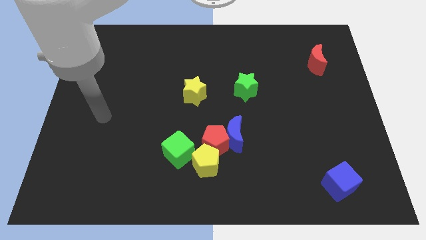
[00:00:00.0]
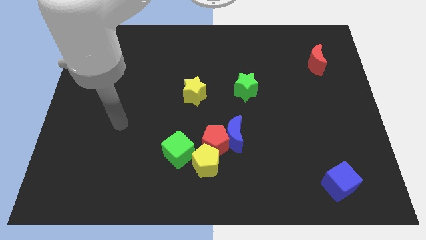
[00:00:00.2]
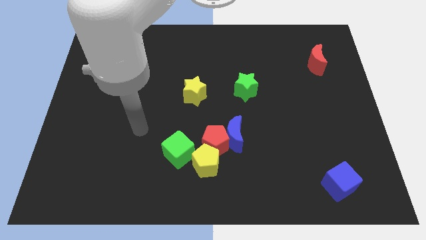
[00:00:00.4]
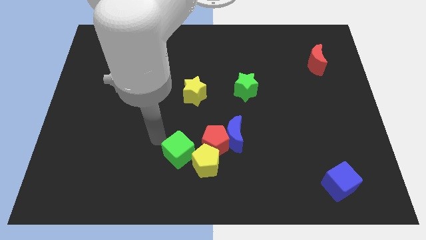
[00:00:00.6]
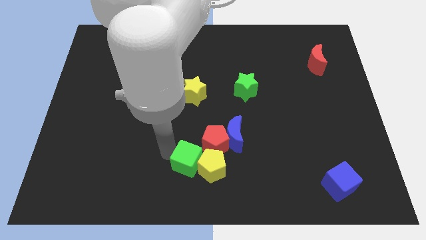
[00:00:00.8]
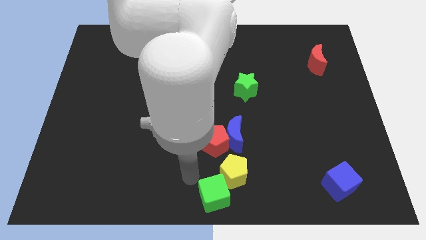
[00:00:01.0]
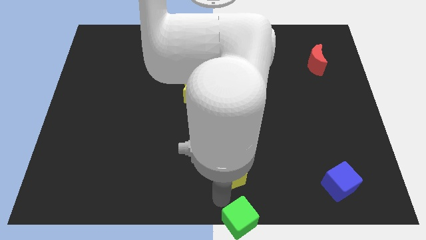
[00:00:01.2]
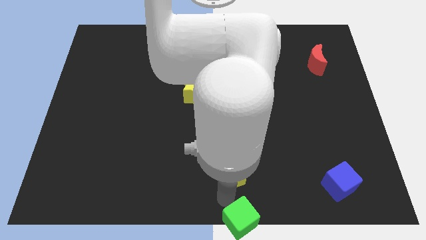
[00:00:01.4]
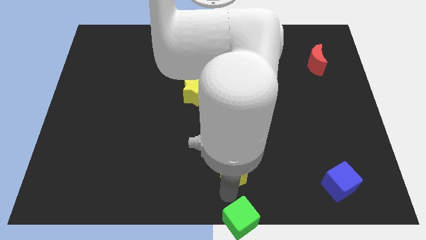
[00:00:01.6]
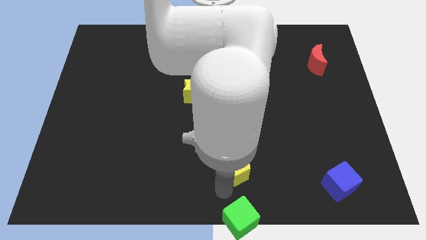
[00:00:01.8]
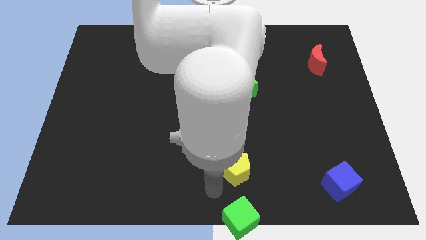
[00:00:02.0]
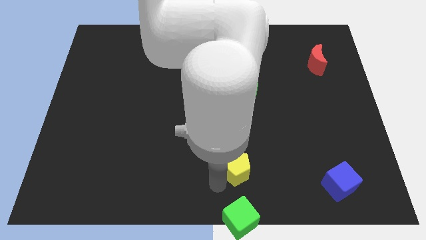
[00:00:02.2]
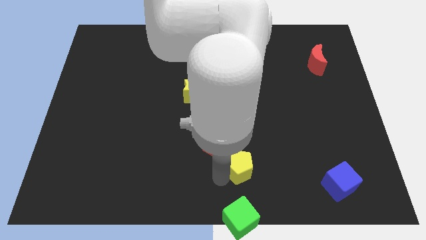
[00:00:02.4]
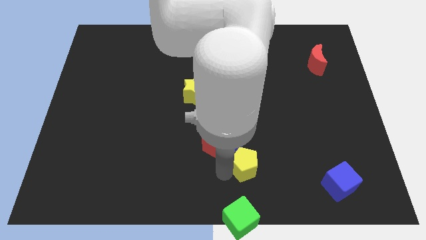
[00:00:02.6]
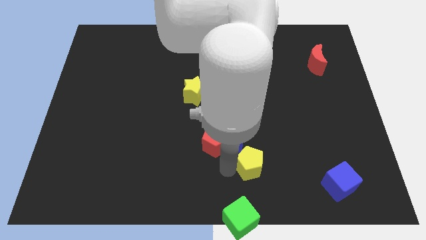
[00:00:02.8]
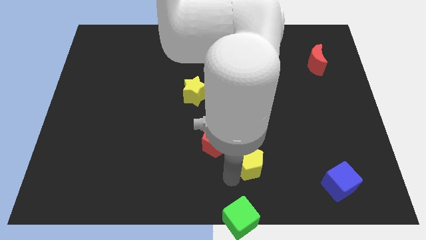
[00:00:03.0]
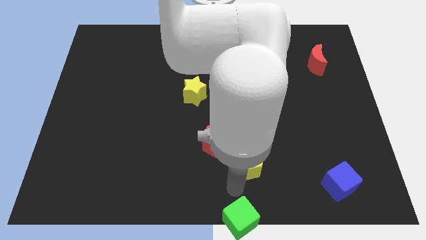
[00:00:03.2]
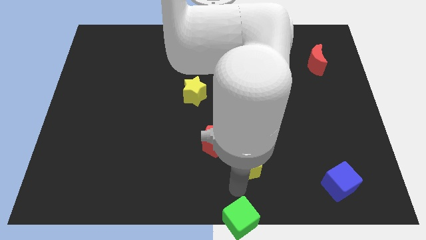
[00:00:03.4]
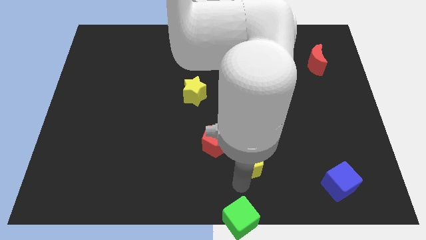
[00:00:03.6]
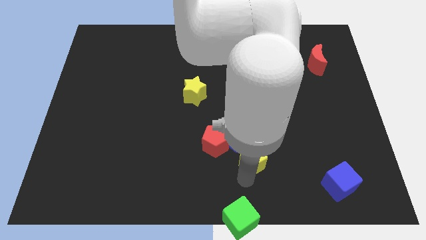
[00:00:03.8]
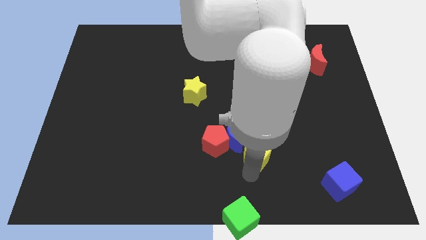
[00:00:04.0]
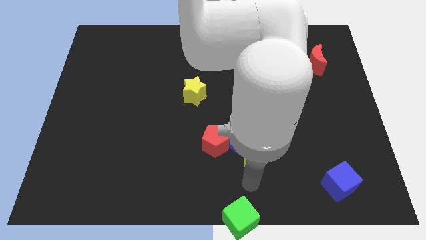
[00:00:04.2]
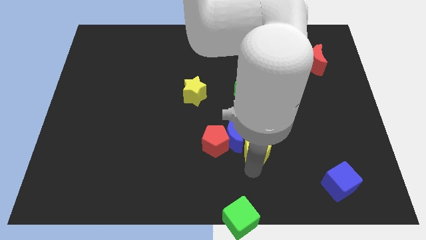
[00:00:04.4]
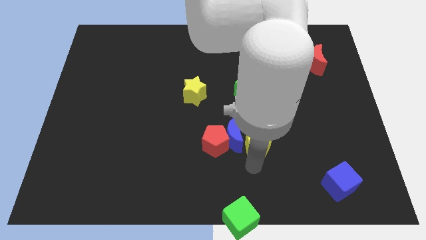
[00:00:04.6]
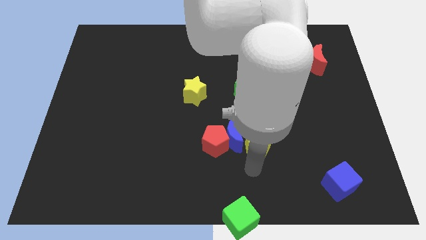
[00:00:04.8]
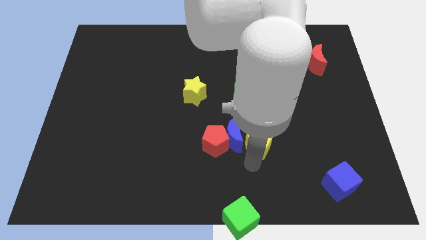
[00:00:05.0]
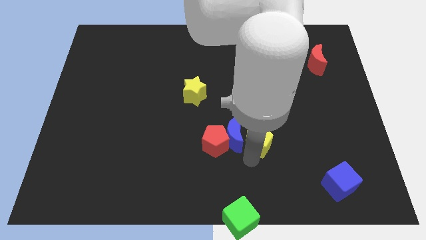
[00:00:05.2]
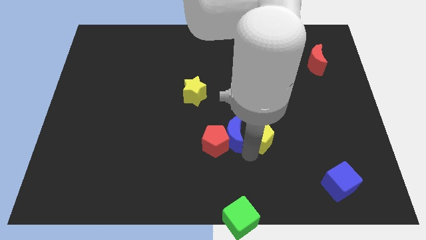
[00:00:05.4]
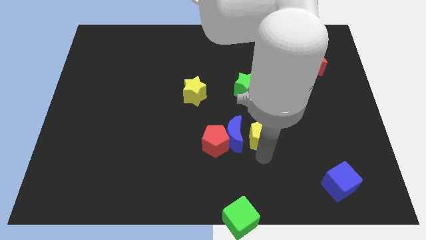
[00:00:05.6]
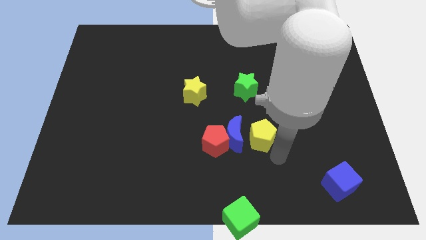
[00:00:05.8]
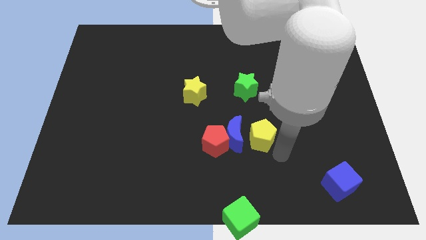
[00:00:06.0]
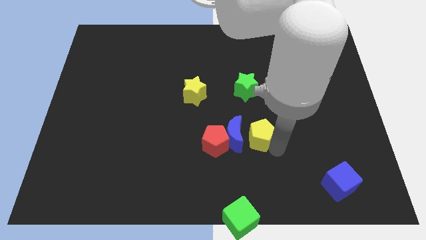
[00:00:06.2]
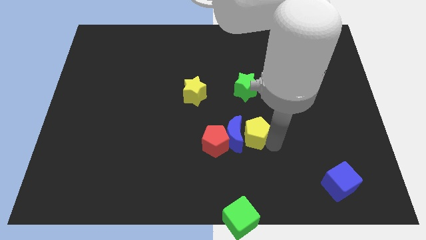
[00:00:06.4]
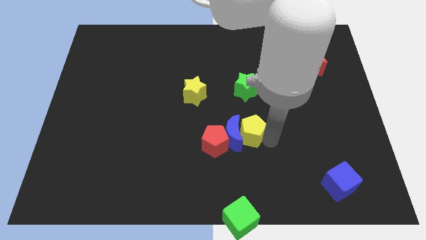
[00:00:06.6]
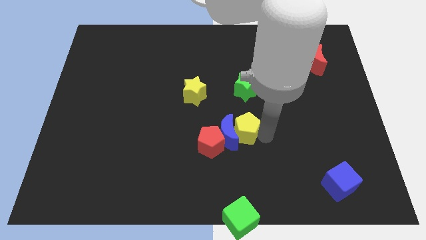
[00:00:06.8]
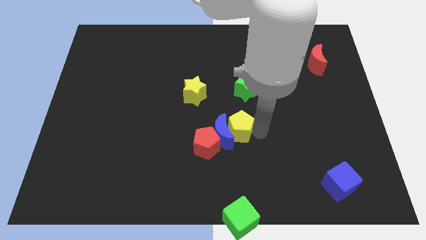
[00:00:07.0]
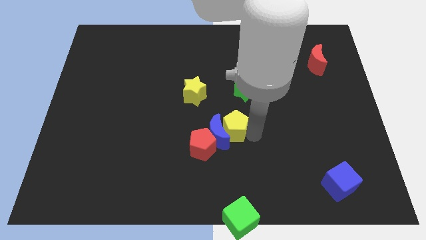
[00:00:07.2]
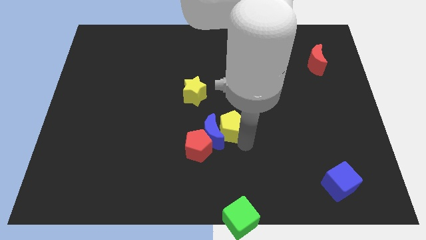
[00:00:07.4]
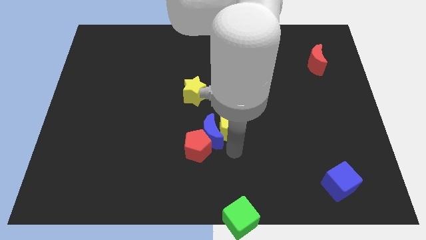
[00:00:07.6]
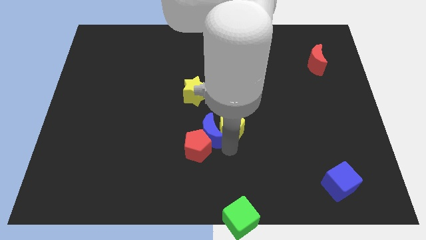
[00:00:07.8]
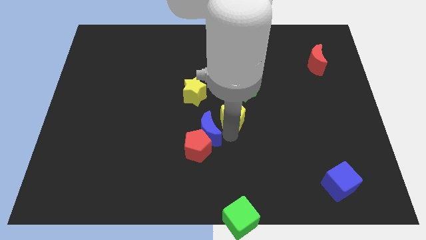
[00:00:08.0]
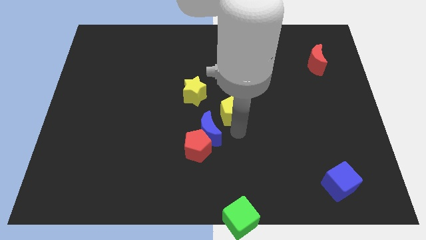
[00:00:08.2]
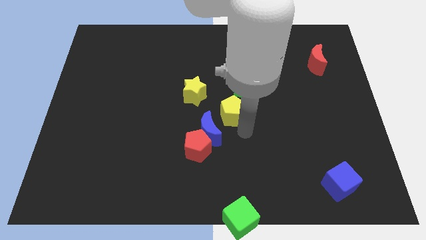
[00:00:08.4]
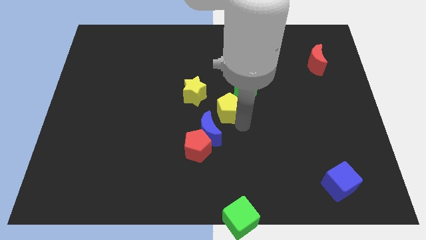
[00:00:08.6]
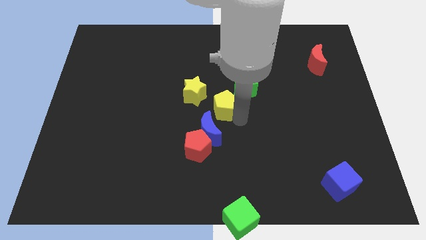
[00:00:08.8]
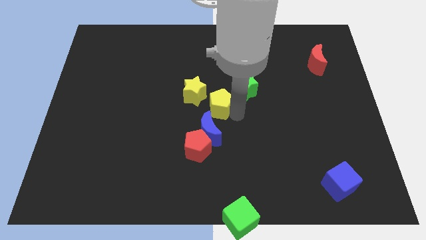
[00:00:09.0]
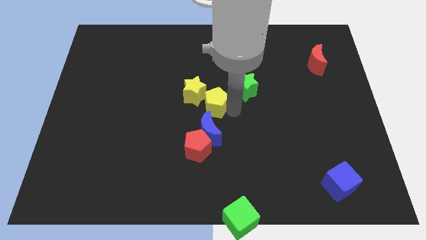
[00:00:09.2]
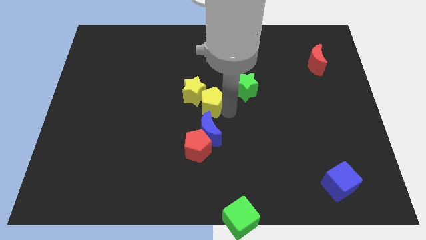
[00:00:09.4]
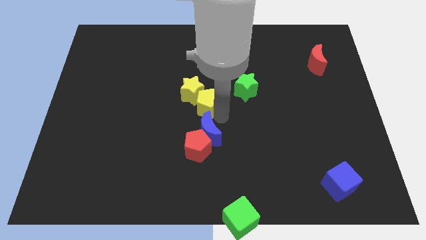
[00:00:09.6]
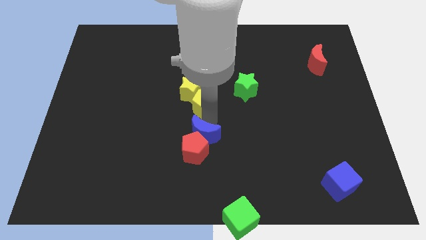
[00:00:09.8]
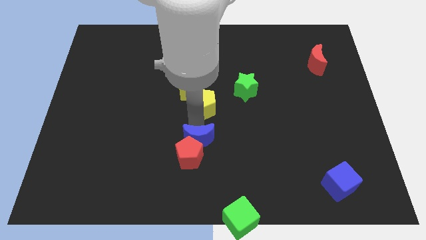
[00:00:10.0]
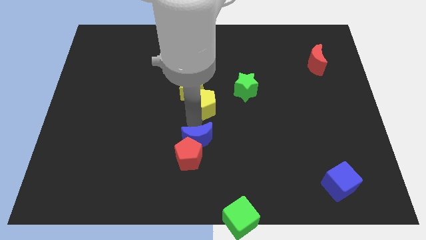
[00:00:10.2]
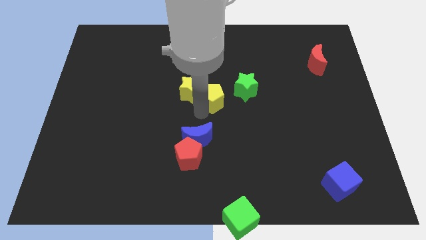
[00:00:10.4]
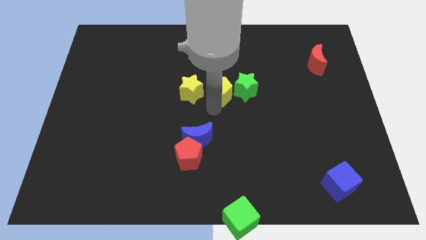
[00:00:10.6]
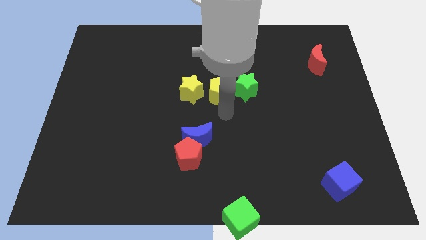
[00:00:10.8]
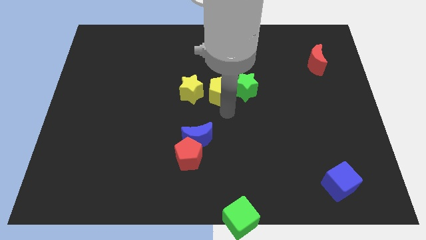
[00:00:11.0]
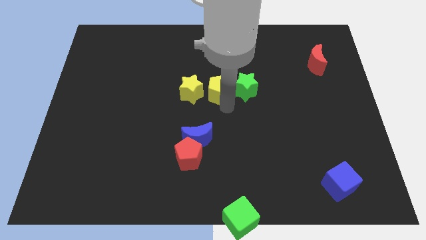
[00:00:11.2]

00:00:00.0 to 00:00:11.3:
push the yellow pentagon diagonally up and to the right of the yellow star
